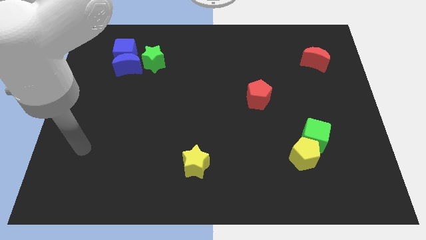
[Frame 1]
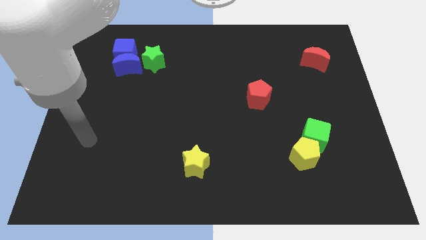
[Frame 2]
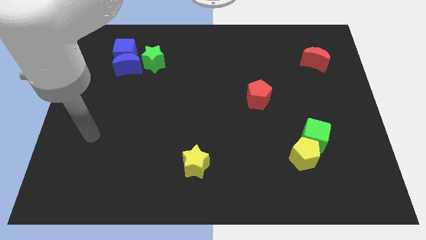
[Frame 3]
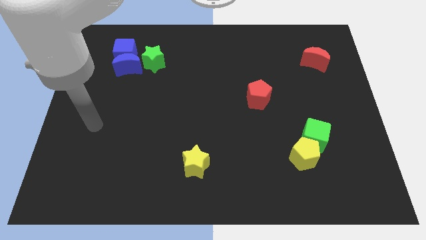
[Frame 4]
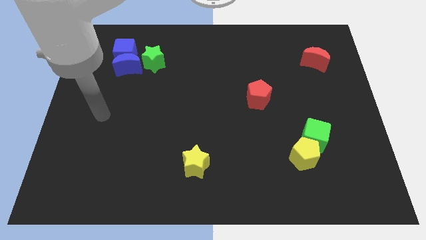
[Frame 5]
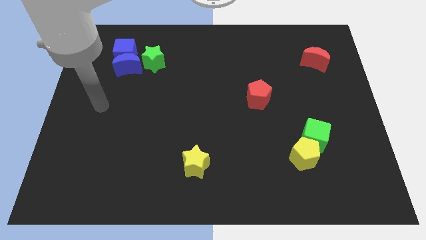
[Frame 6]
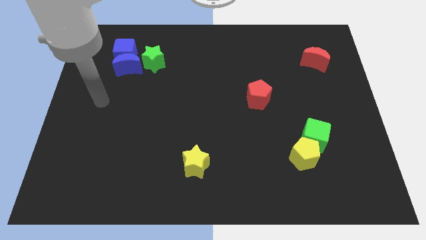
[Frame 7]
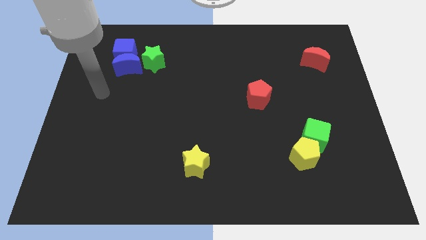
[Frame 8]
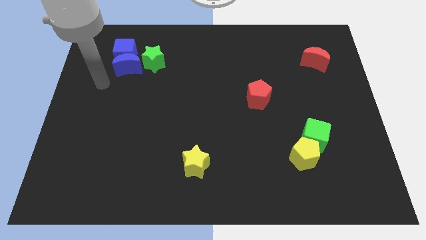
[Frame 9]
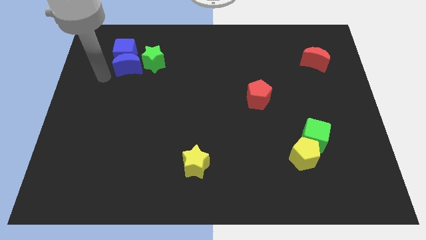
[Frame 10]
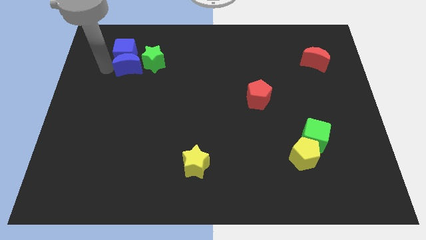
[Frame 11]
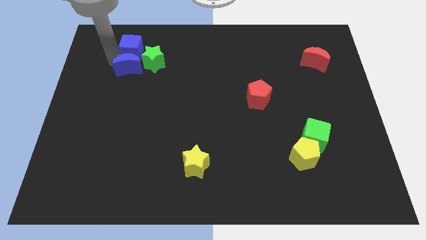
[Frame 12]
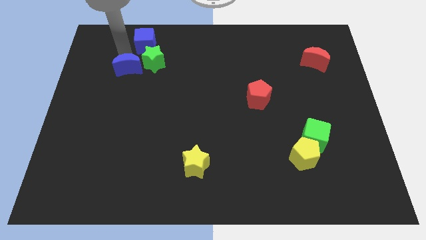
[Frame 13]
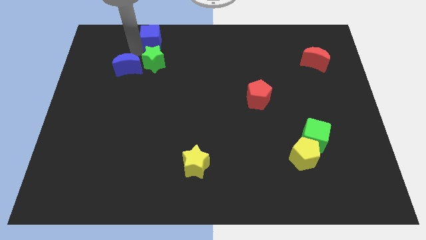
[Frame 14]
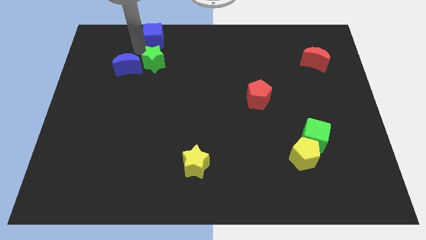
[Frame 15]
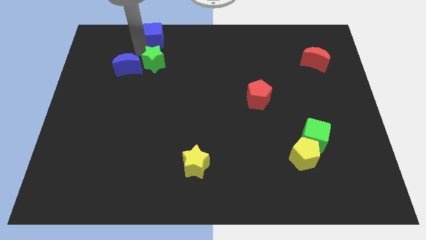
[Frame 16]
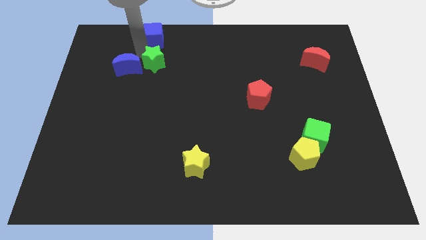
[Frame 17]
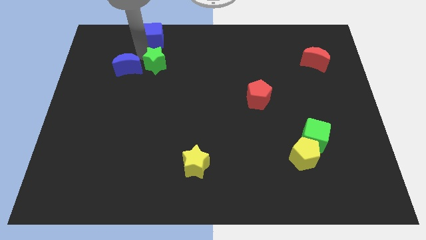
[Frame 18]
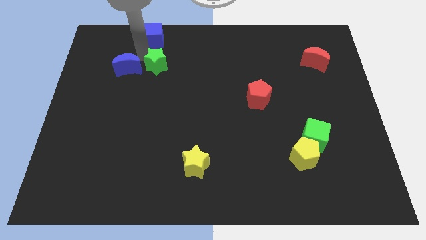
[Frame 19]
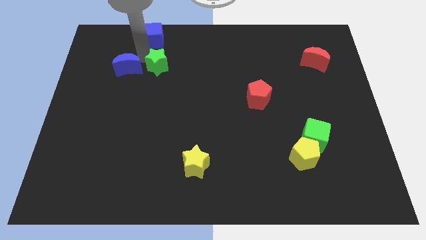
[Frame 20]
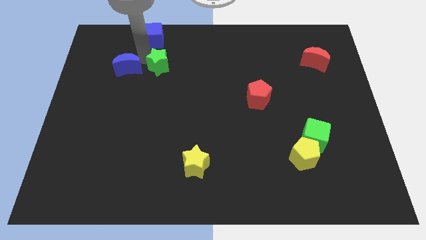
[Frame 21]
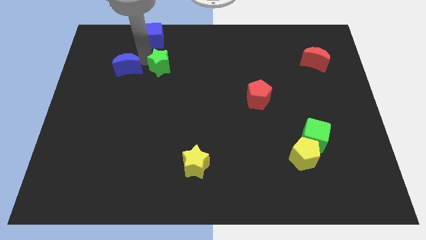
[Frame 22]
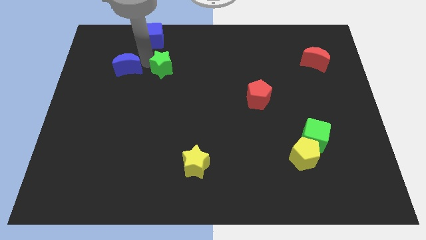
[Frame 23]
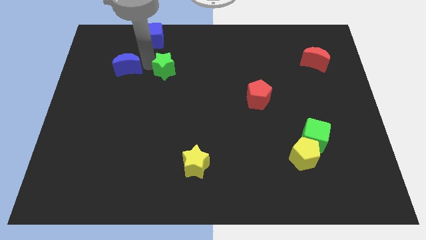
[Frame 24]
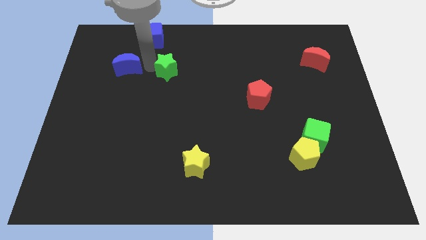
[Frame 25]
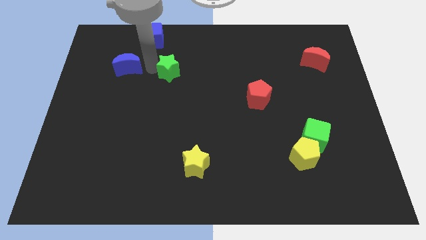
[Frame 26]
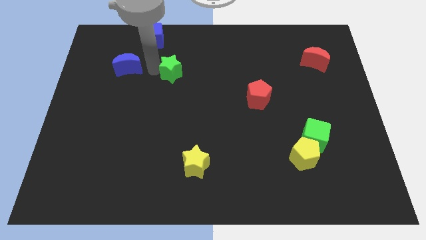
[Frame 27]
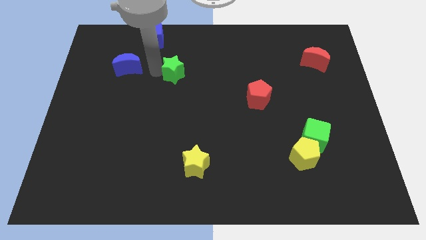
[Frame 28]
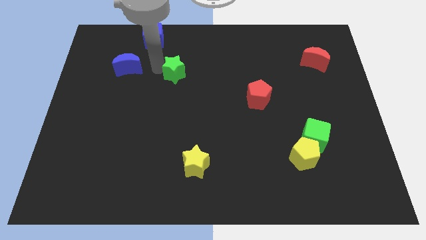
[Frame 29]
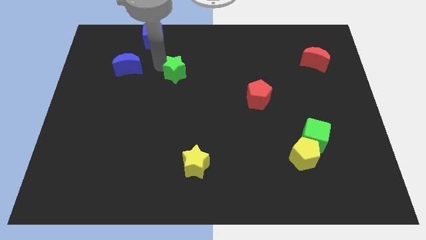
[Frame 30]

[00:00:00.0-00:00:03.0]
move the green star somewhat downwards and to the right

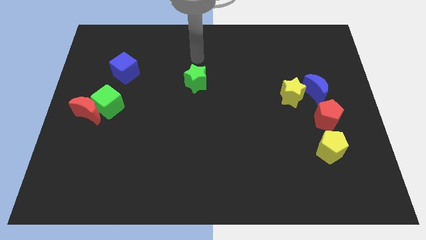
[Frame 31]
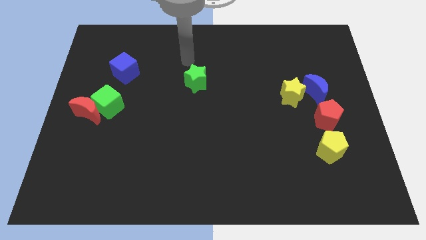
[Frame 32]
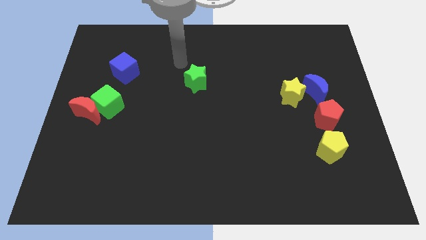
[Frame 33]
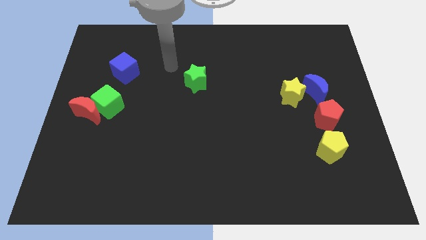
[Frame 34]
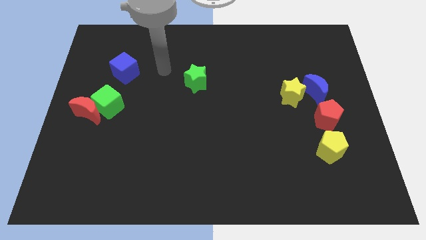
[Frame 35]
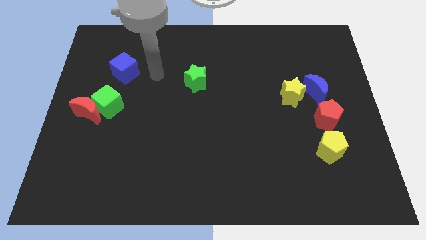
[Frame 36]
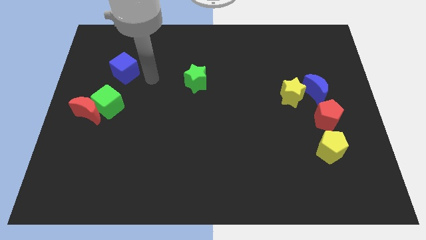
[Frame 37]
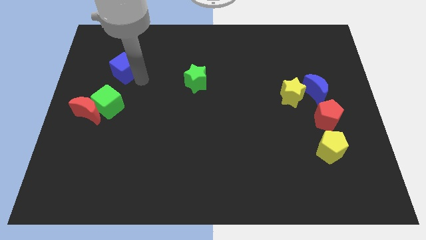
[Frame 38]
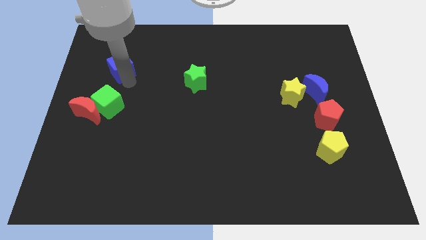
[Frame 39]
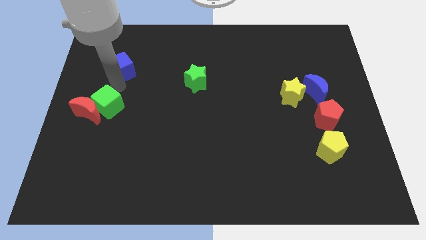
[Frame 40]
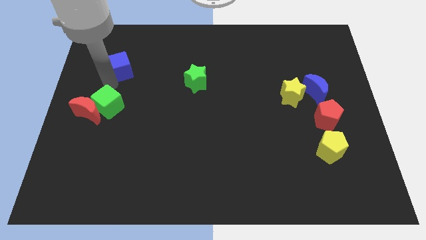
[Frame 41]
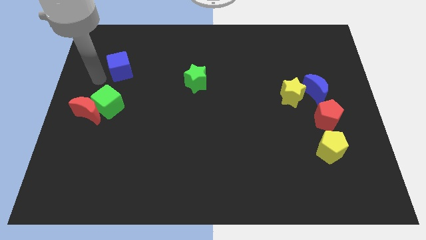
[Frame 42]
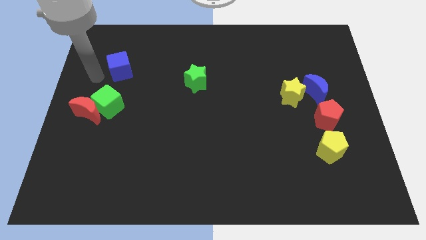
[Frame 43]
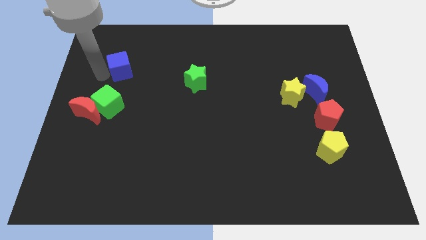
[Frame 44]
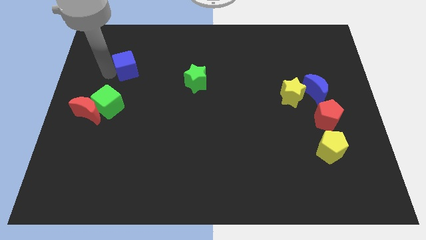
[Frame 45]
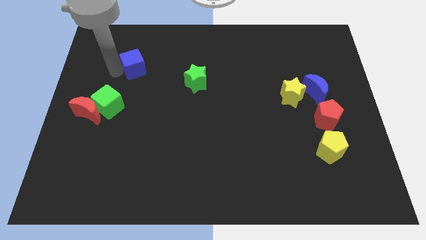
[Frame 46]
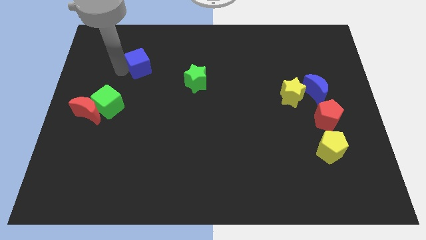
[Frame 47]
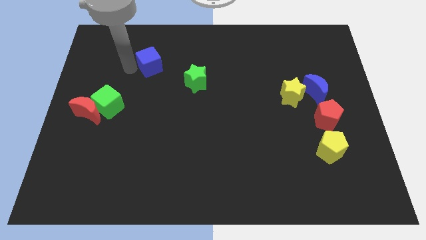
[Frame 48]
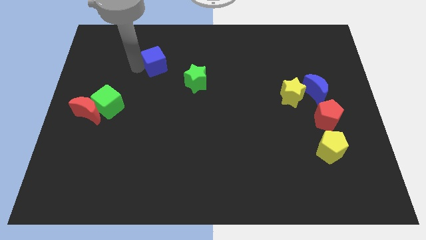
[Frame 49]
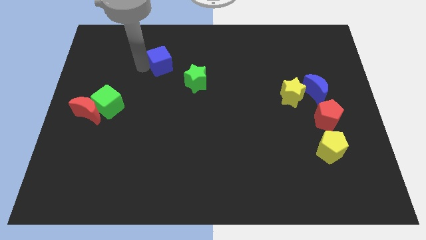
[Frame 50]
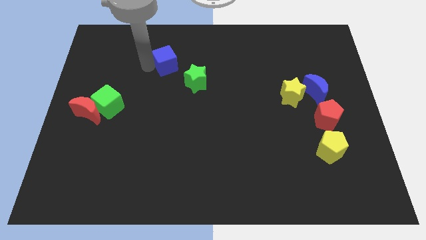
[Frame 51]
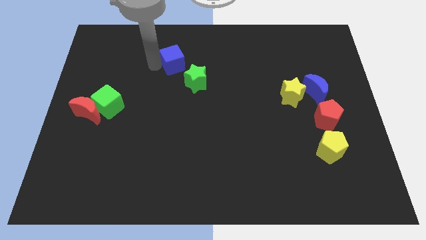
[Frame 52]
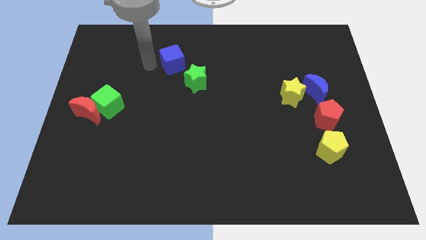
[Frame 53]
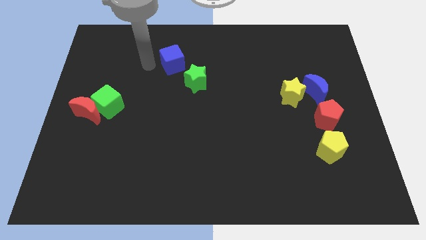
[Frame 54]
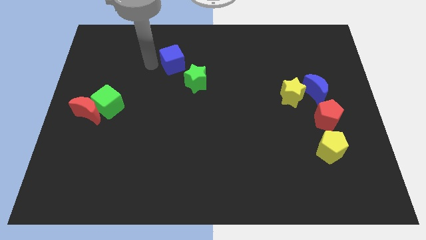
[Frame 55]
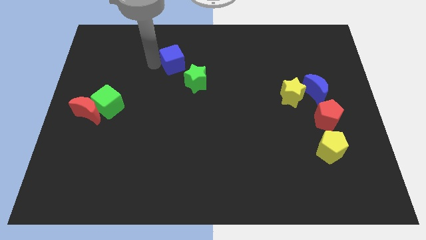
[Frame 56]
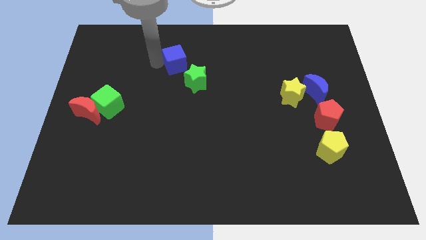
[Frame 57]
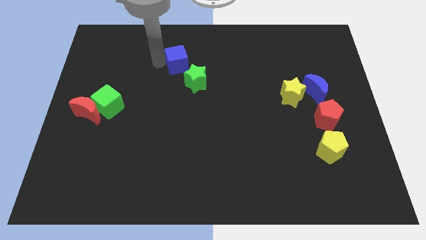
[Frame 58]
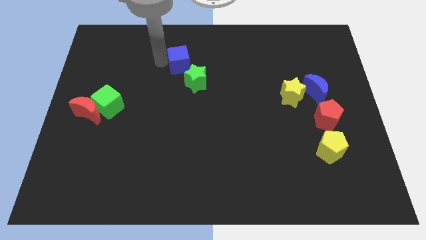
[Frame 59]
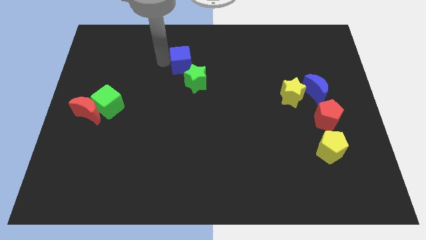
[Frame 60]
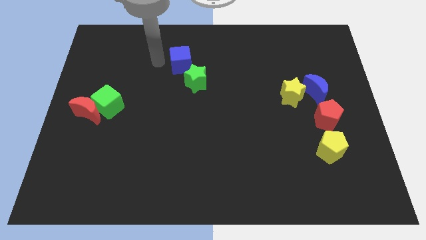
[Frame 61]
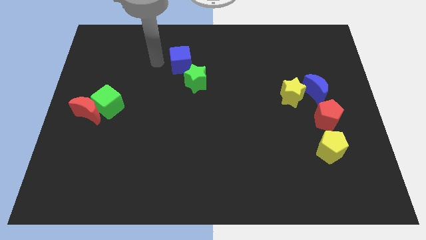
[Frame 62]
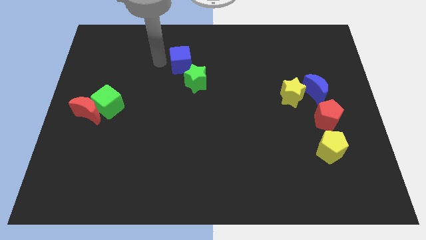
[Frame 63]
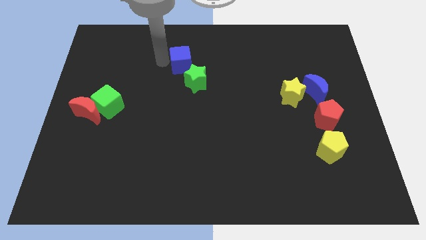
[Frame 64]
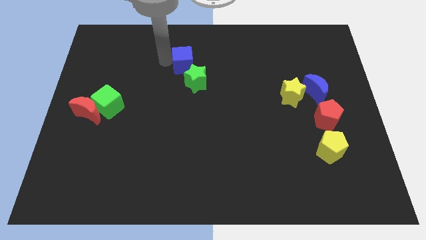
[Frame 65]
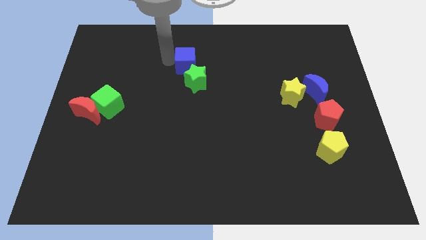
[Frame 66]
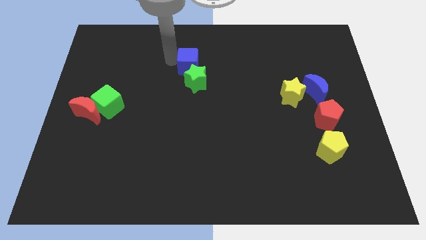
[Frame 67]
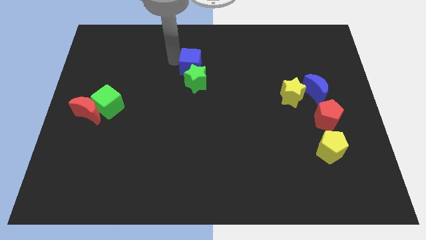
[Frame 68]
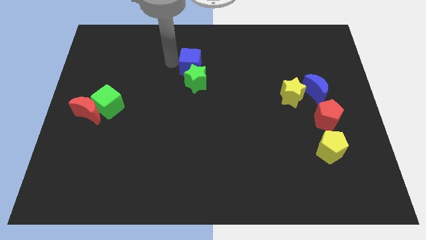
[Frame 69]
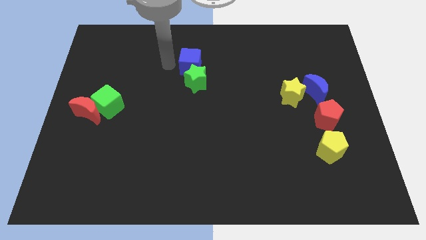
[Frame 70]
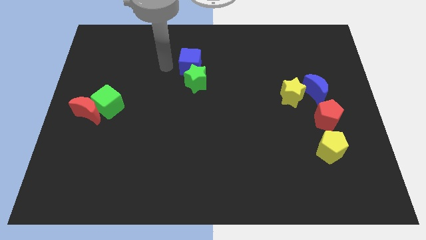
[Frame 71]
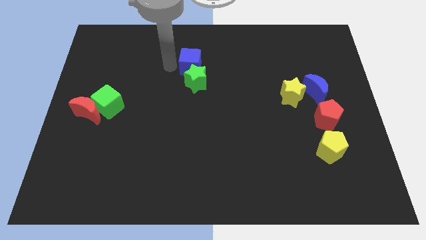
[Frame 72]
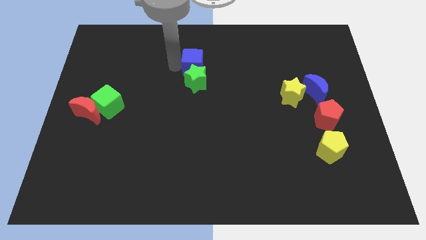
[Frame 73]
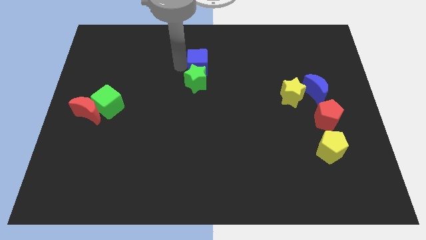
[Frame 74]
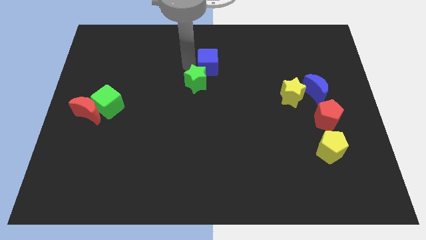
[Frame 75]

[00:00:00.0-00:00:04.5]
push the blue cube right

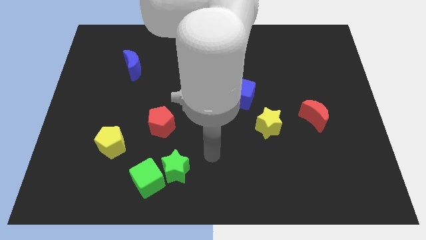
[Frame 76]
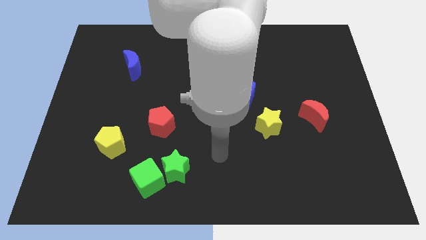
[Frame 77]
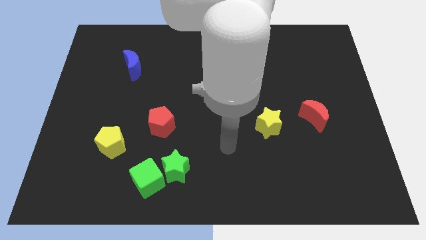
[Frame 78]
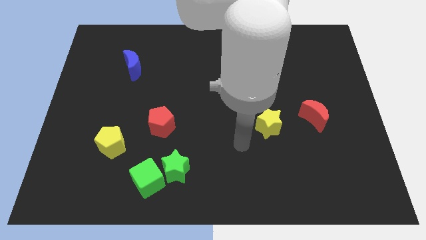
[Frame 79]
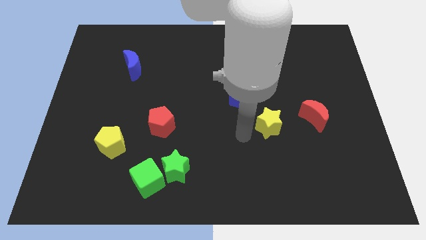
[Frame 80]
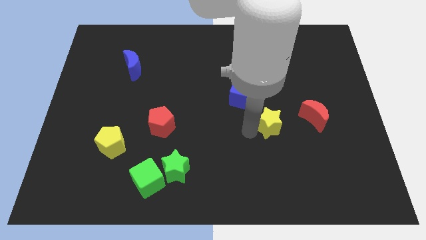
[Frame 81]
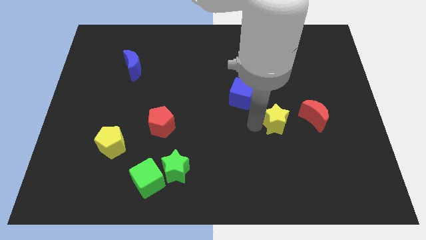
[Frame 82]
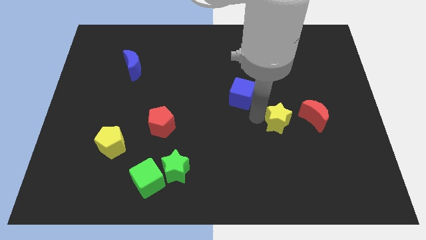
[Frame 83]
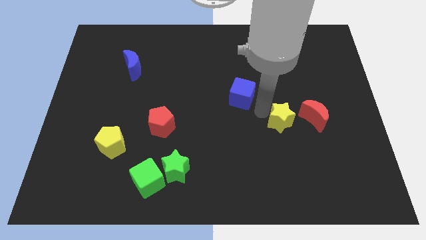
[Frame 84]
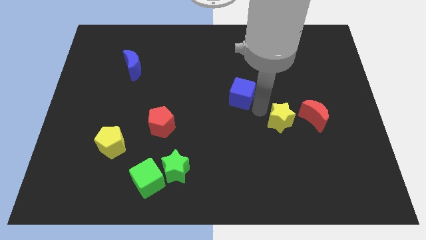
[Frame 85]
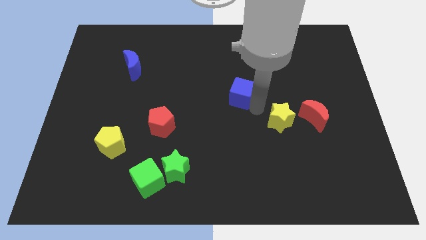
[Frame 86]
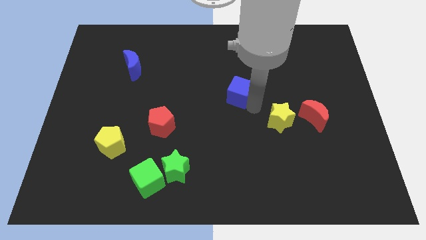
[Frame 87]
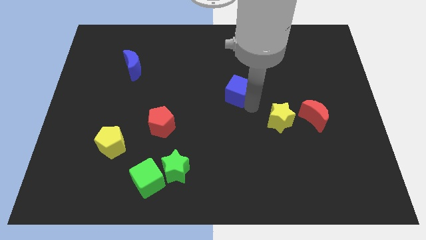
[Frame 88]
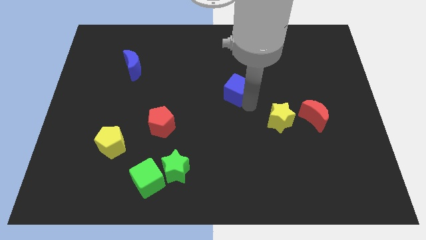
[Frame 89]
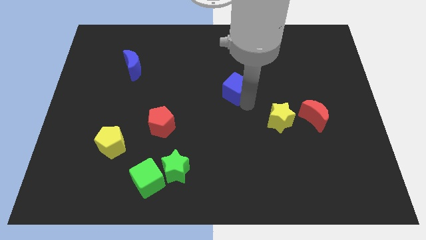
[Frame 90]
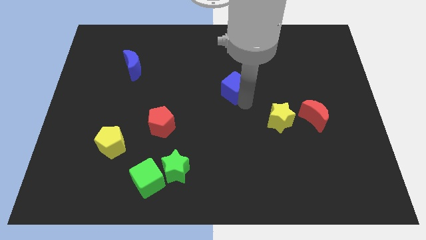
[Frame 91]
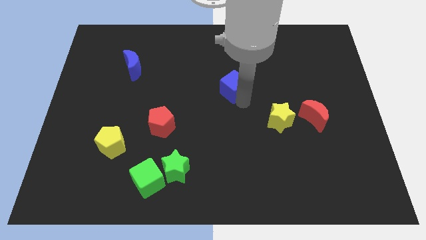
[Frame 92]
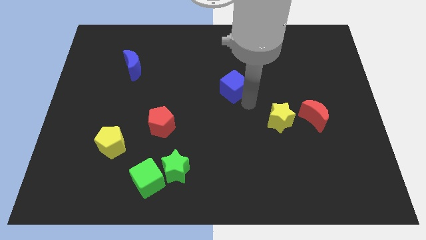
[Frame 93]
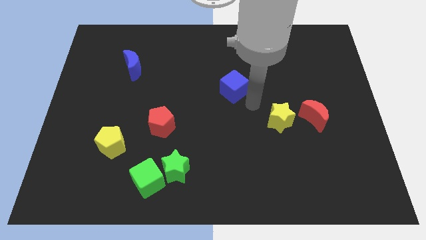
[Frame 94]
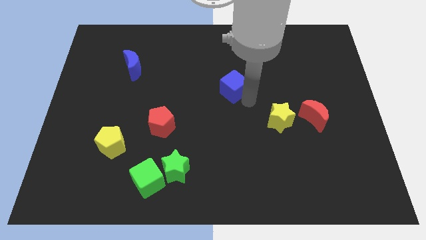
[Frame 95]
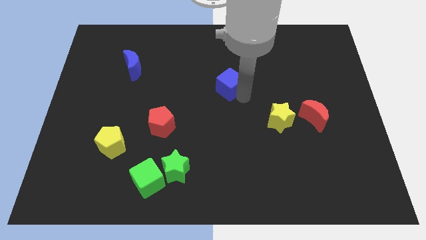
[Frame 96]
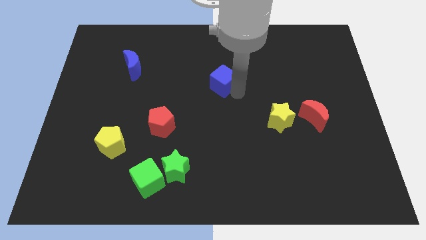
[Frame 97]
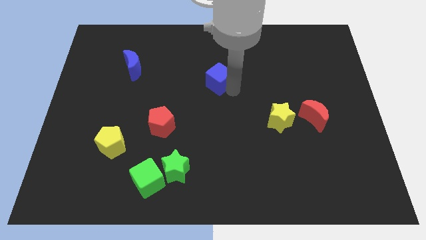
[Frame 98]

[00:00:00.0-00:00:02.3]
slide the blue cube a little bit up and left diagonally
